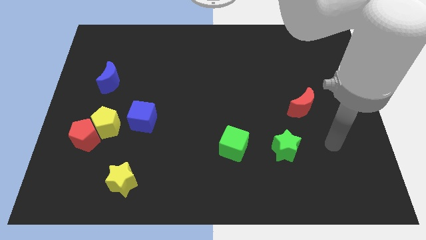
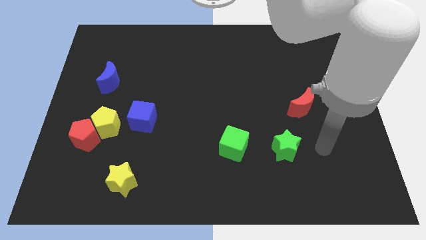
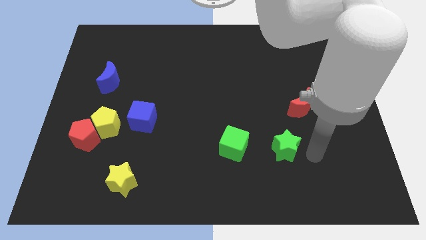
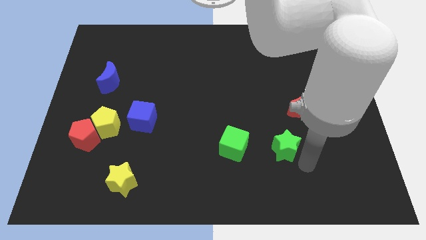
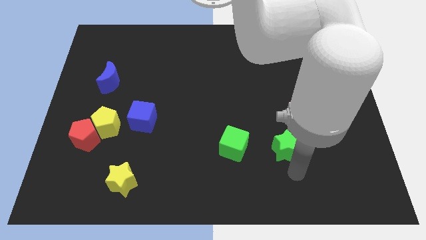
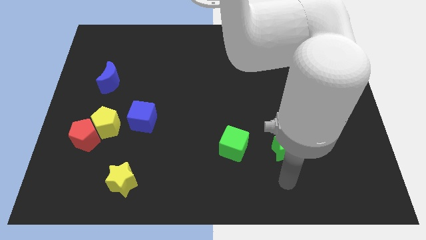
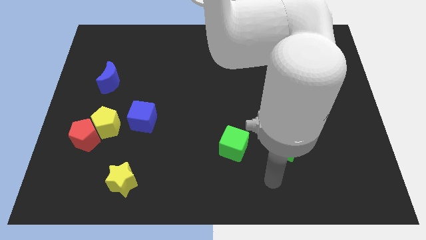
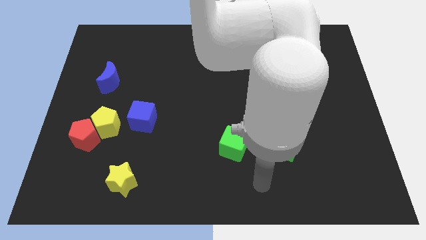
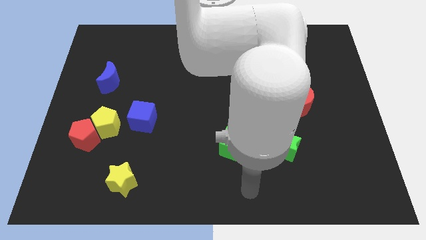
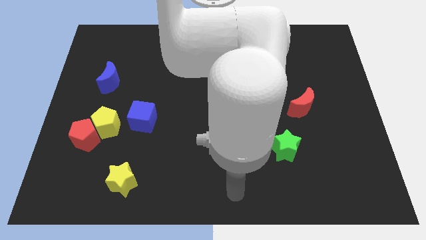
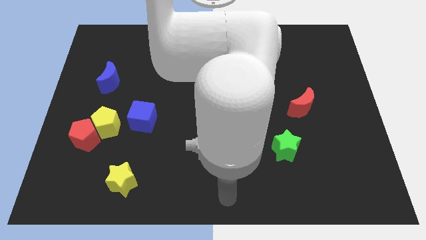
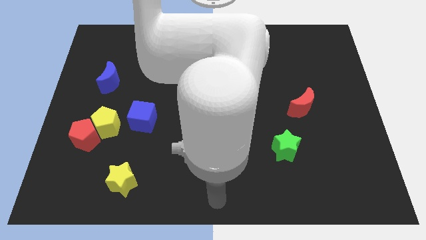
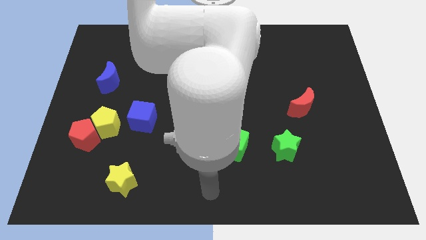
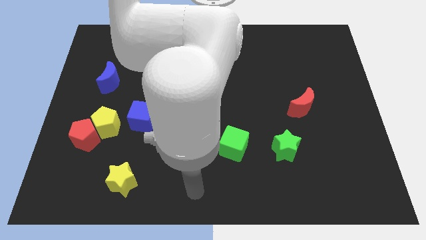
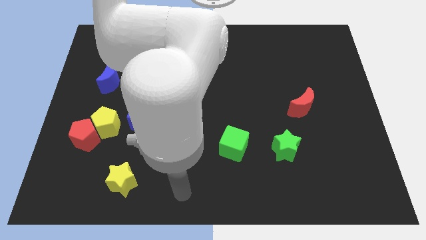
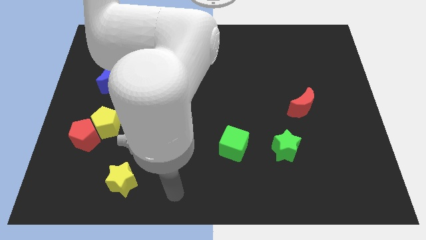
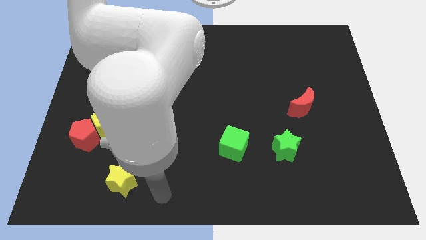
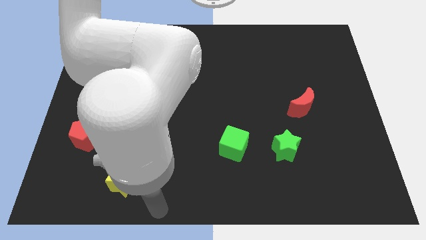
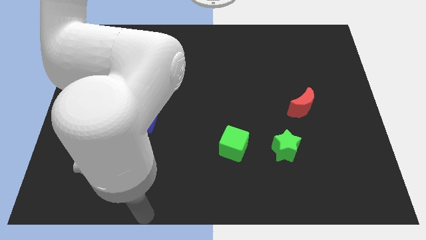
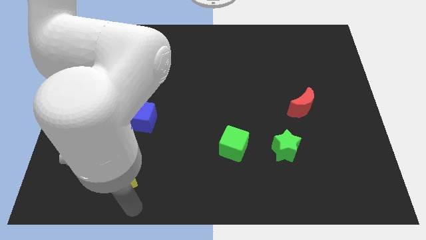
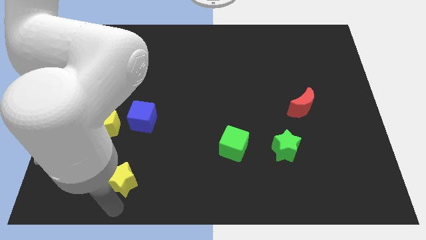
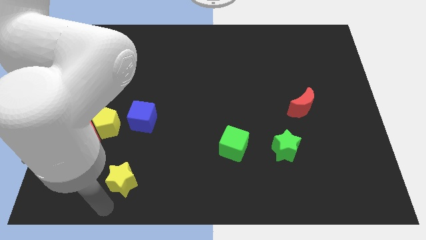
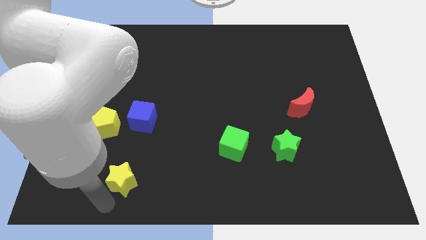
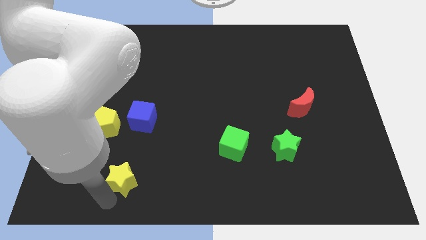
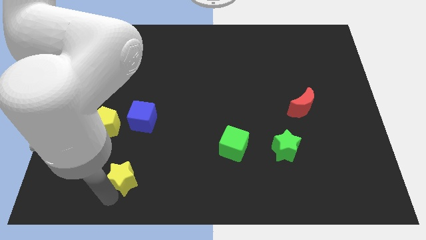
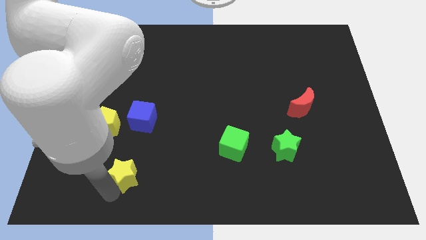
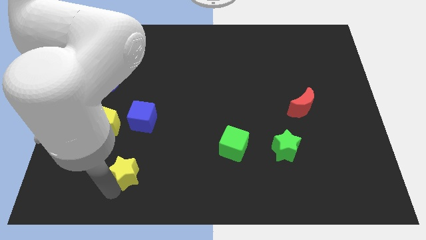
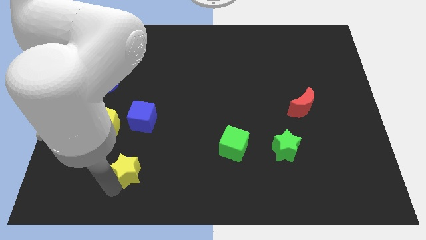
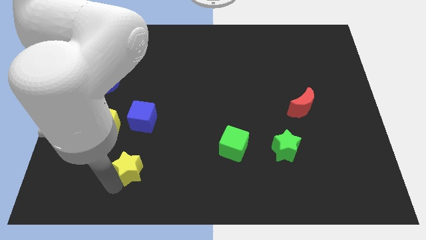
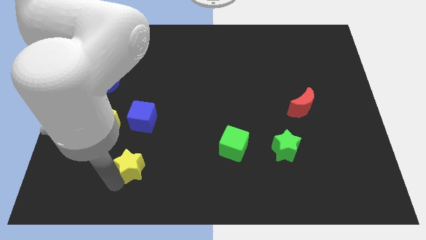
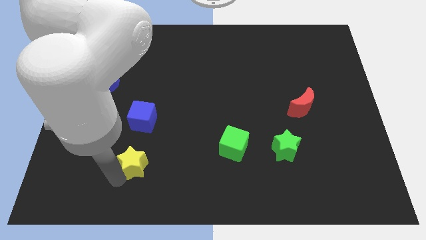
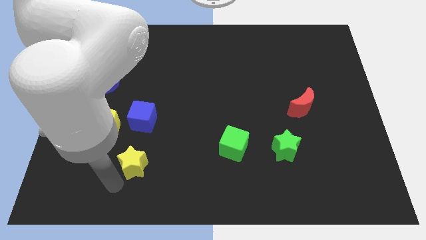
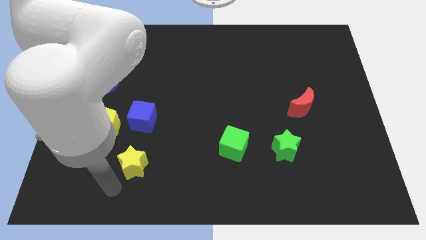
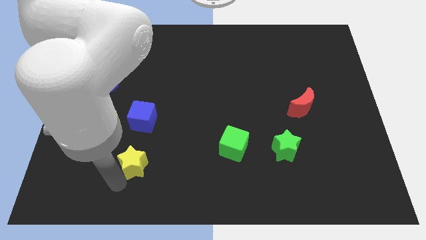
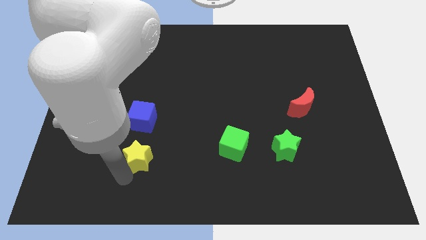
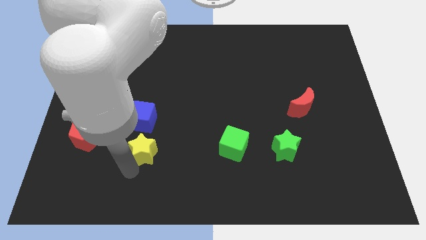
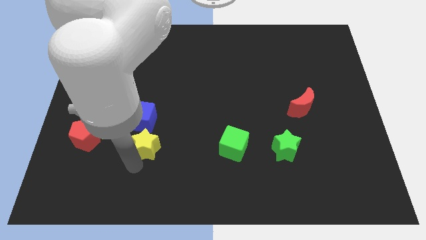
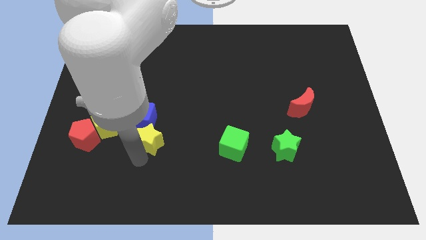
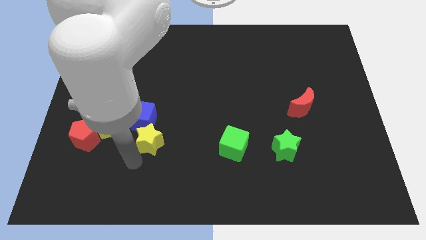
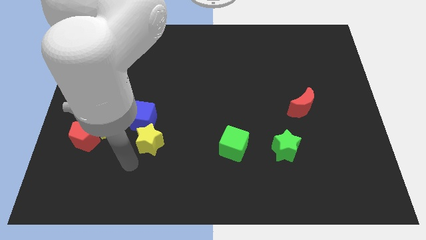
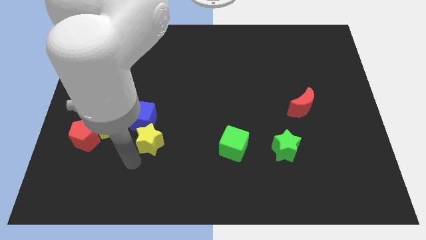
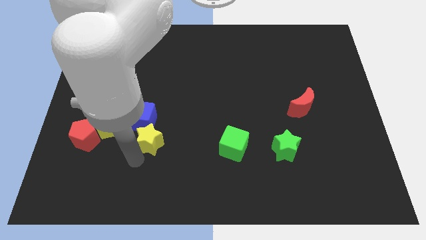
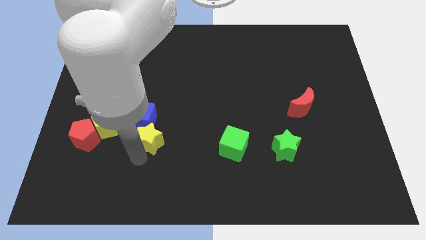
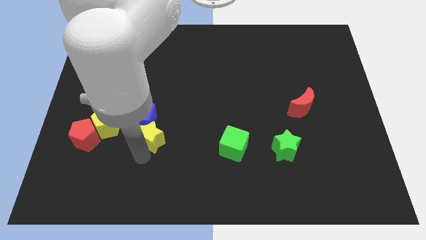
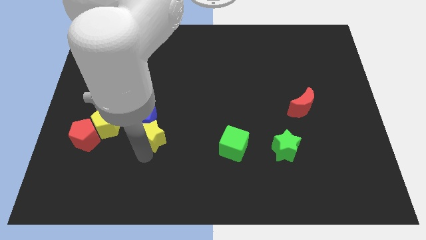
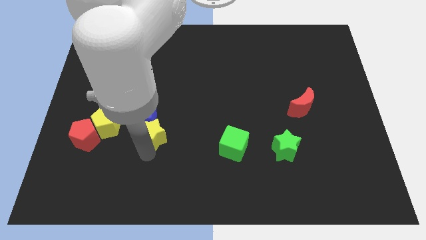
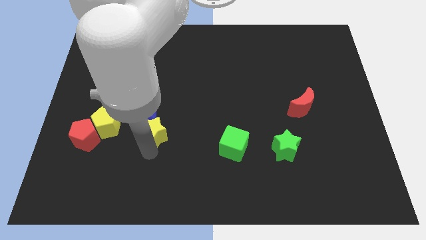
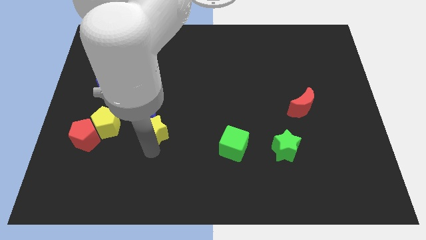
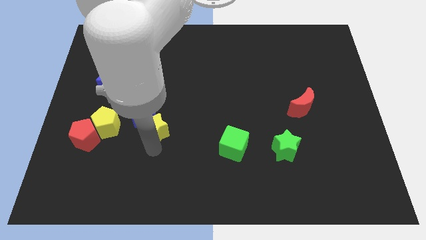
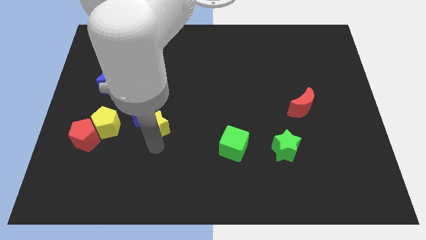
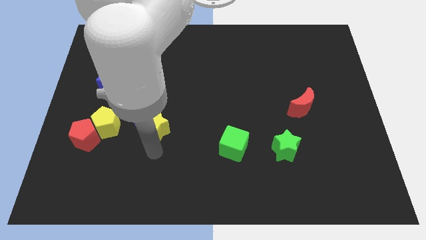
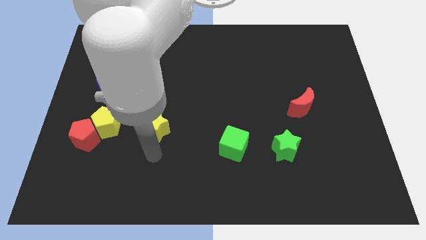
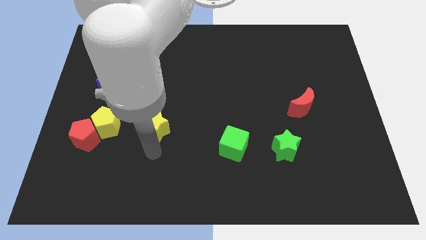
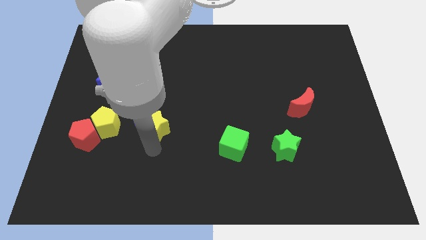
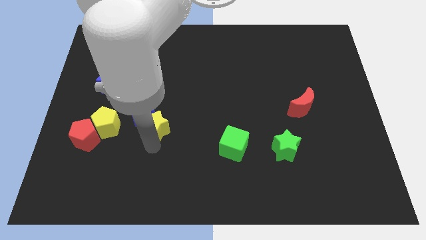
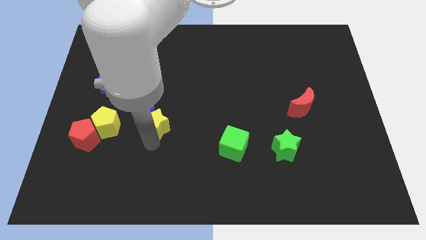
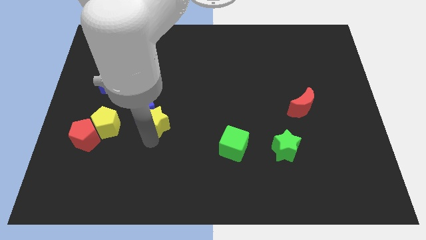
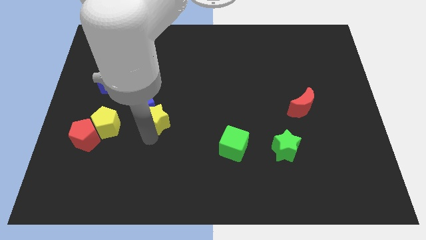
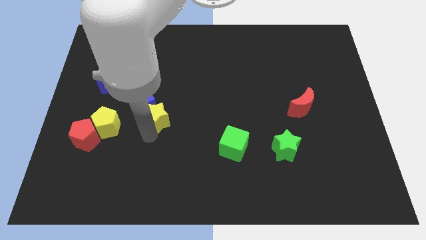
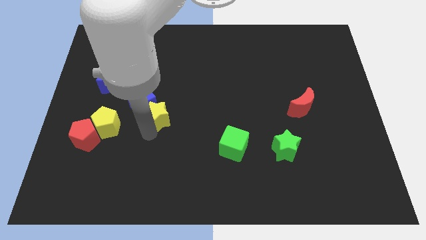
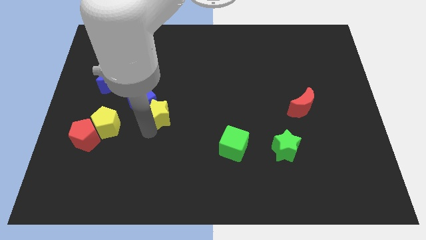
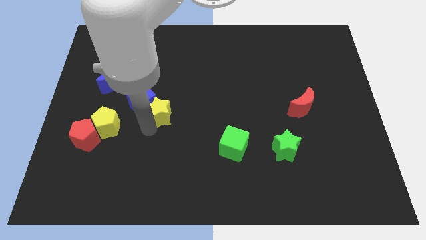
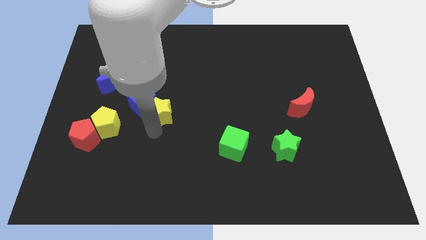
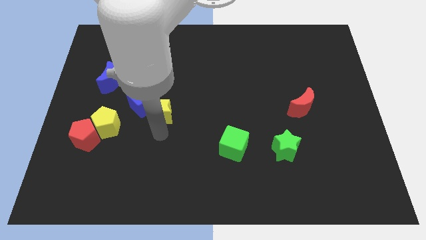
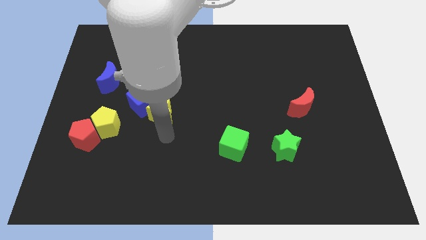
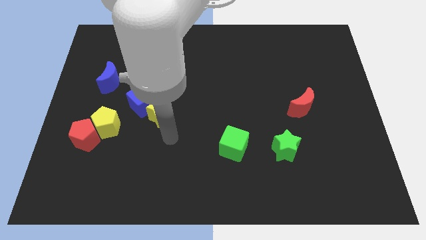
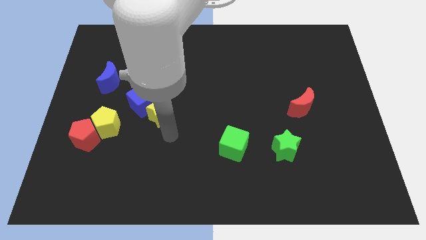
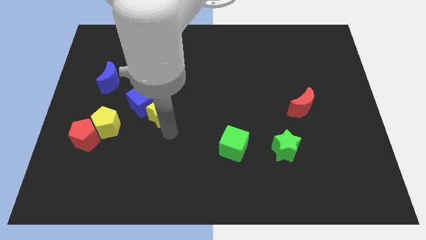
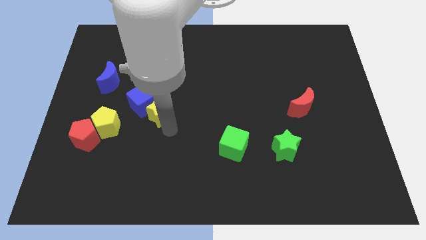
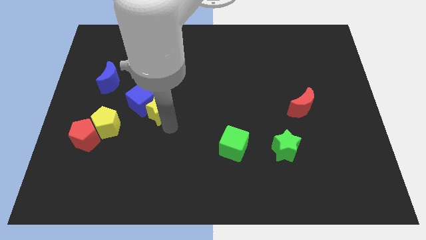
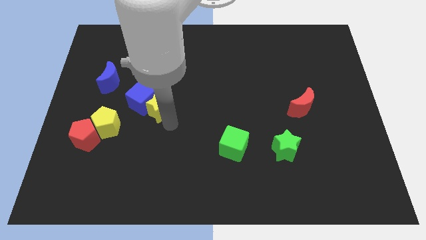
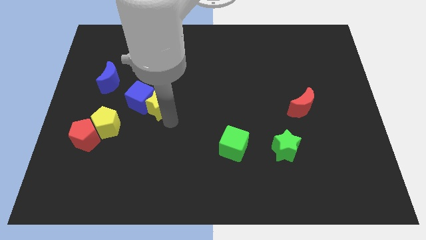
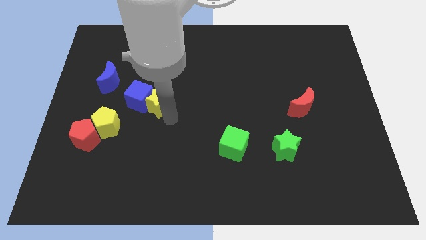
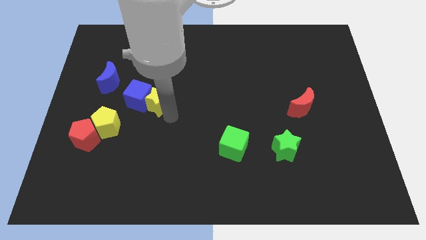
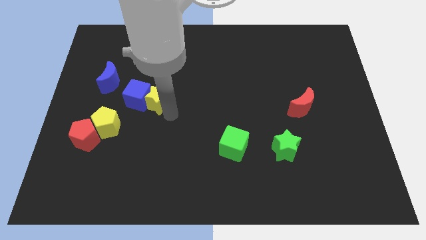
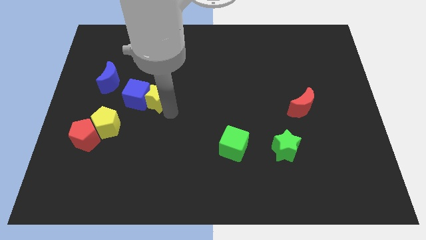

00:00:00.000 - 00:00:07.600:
slide the yellow star up

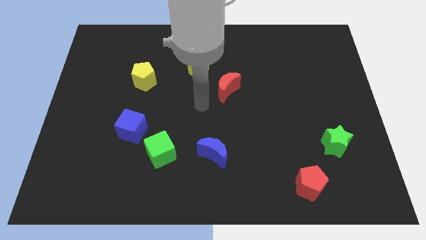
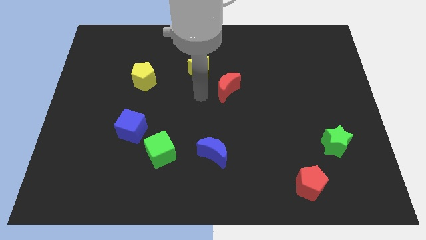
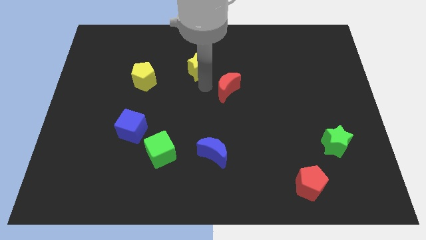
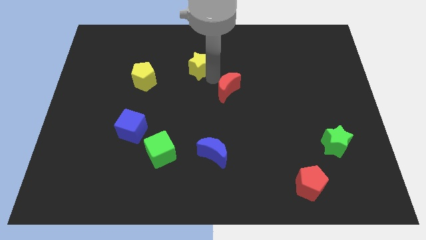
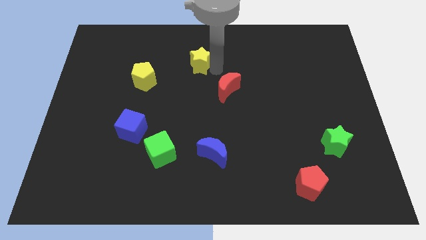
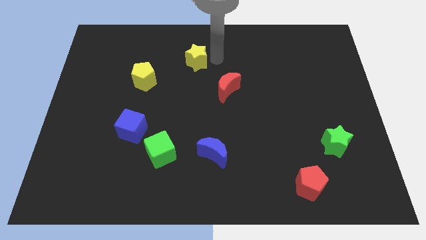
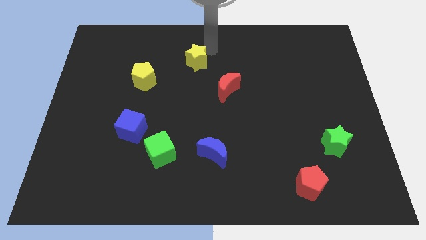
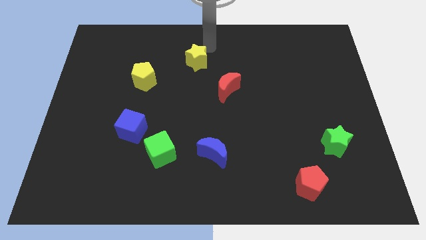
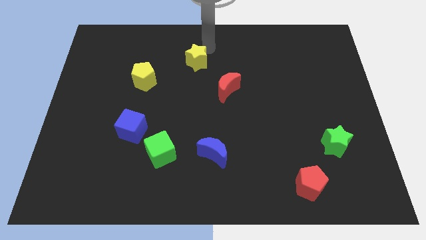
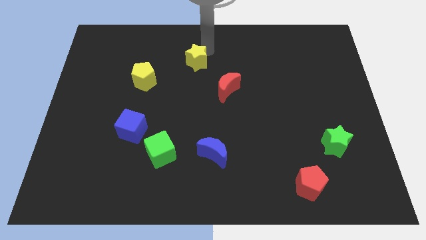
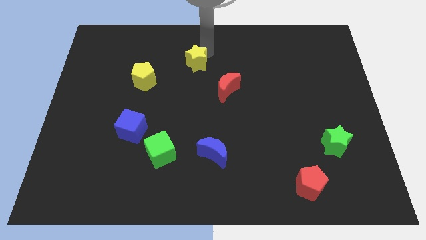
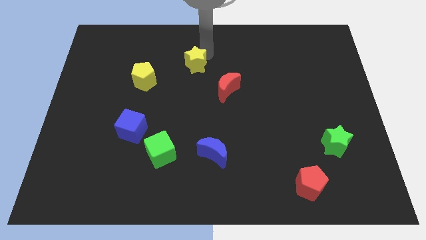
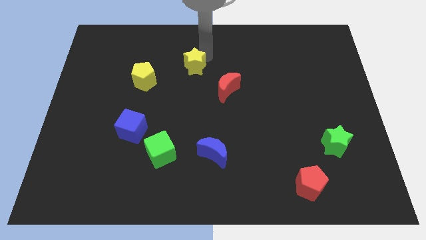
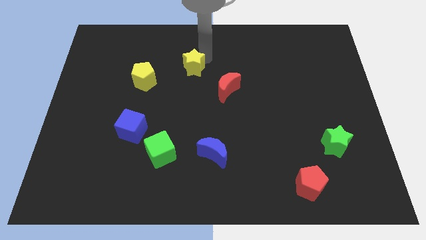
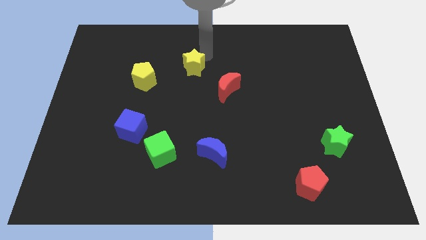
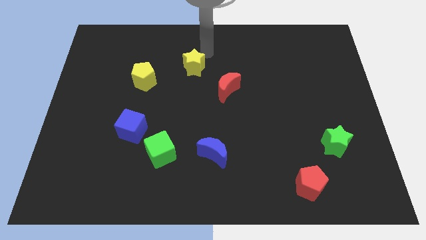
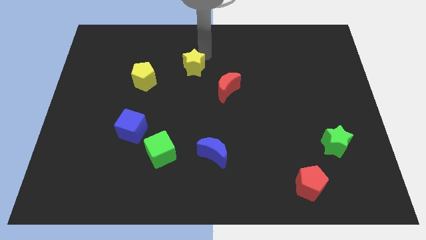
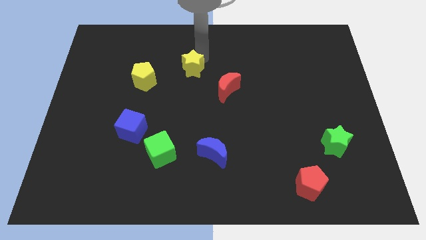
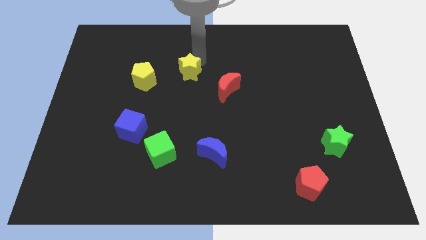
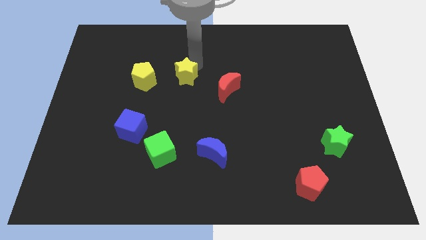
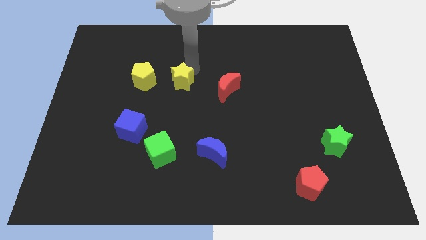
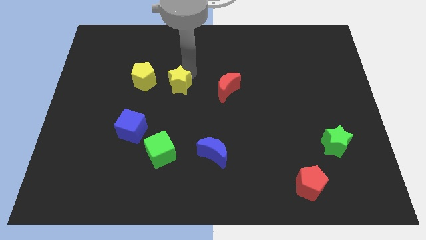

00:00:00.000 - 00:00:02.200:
push the yellow star a little down and to the left
